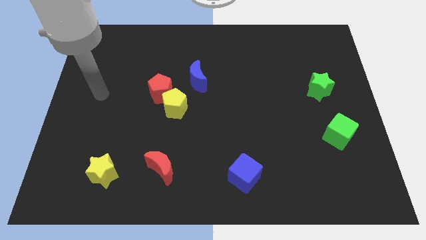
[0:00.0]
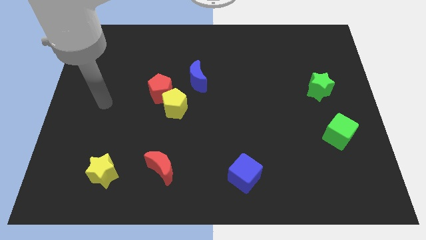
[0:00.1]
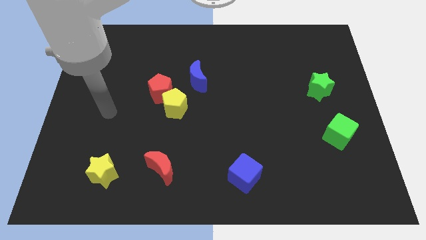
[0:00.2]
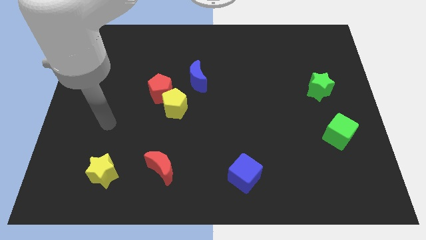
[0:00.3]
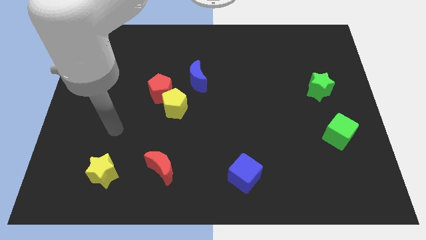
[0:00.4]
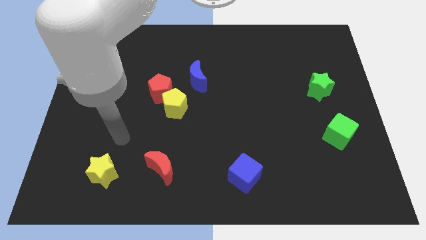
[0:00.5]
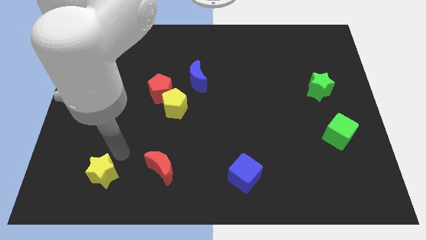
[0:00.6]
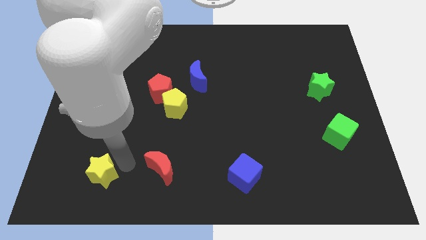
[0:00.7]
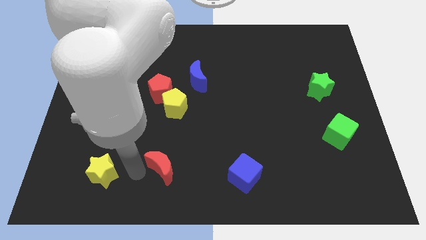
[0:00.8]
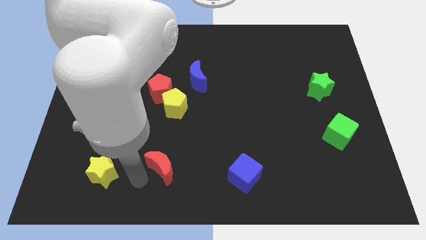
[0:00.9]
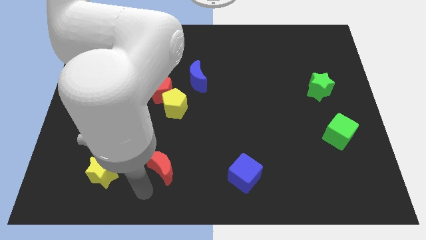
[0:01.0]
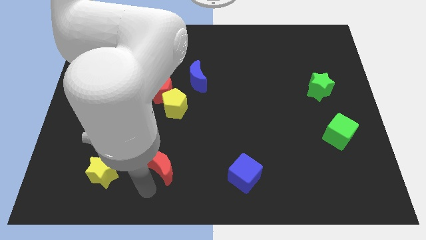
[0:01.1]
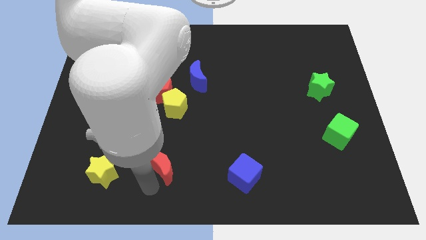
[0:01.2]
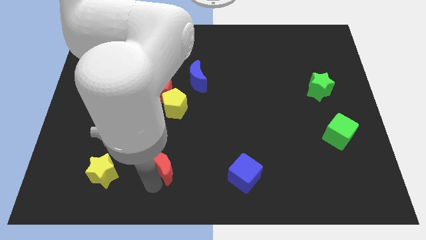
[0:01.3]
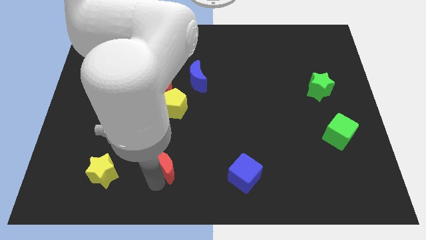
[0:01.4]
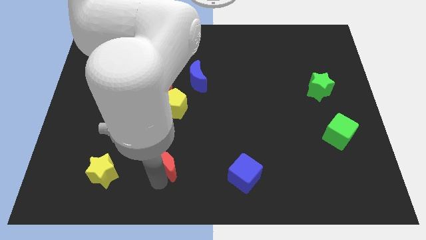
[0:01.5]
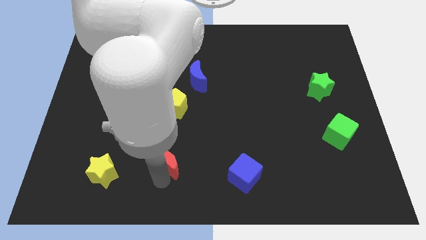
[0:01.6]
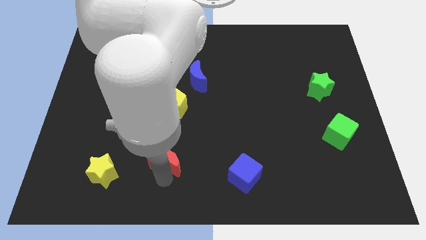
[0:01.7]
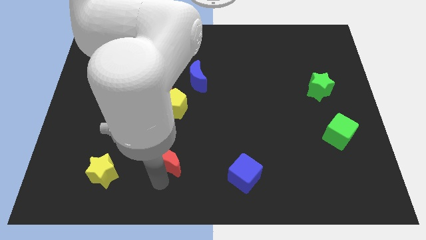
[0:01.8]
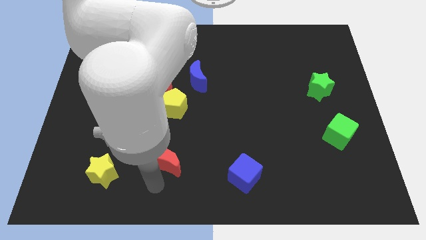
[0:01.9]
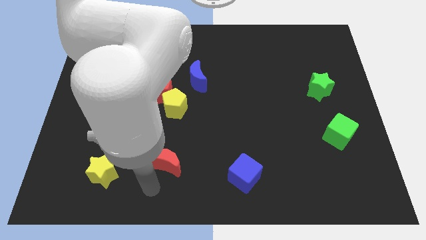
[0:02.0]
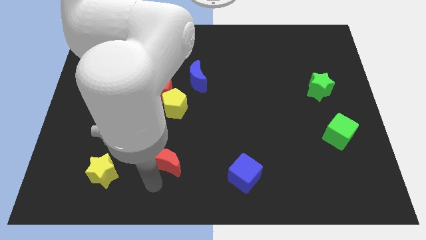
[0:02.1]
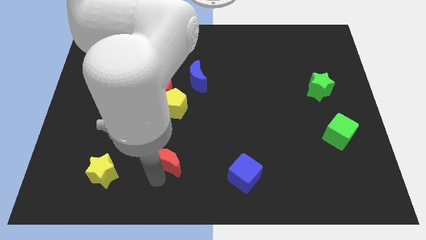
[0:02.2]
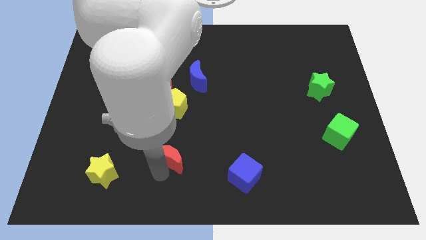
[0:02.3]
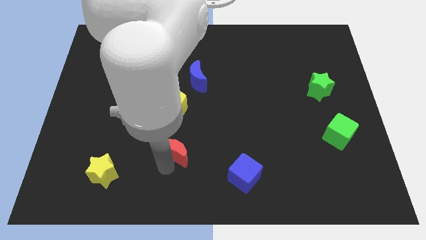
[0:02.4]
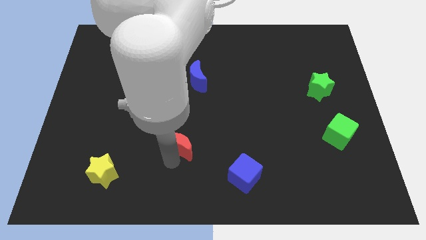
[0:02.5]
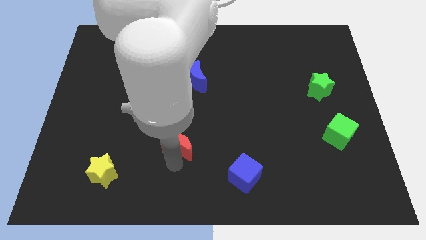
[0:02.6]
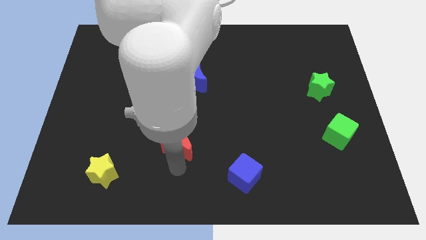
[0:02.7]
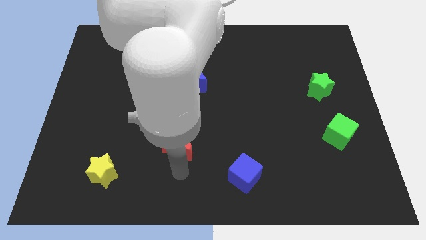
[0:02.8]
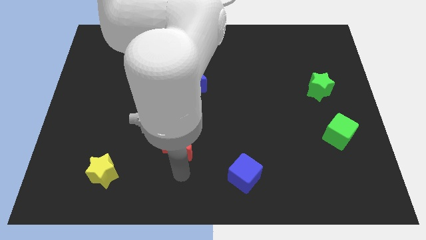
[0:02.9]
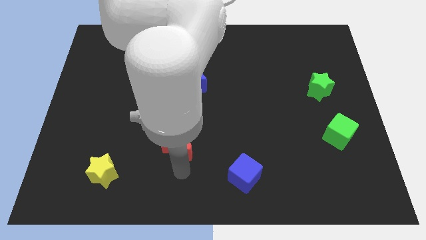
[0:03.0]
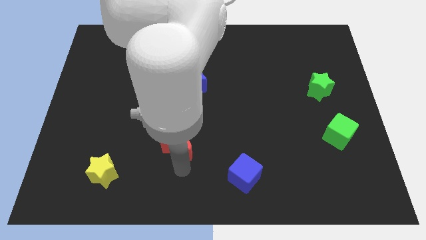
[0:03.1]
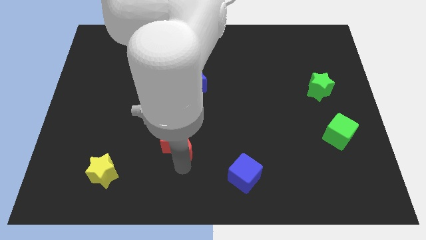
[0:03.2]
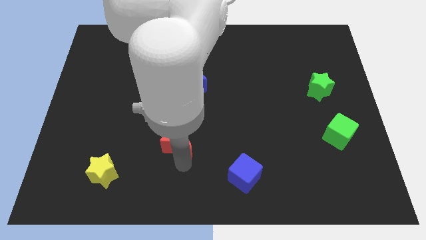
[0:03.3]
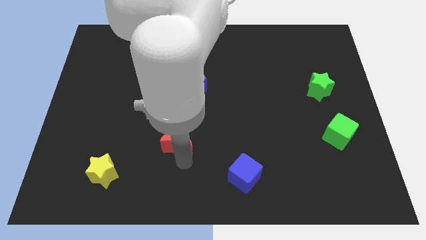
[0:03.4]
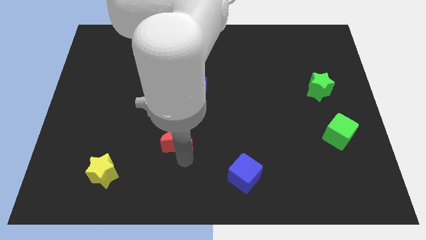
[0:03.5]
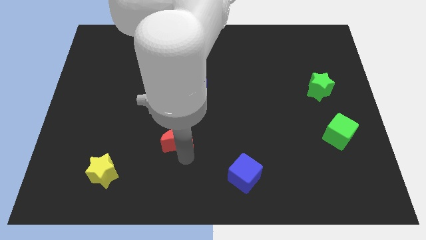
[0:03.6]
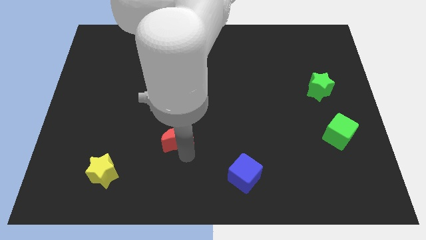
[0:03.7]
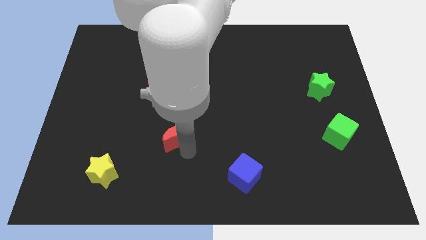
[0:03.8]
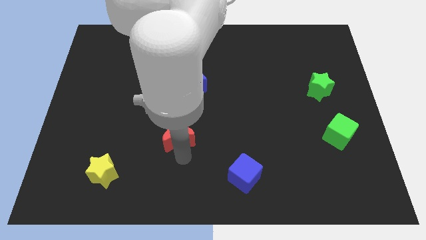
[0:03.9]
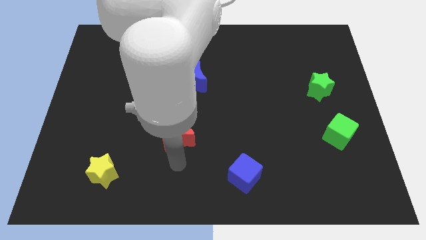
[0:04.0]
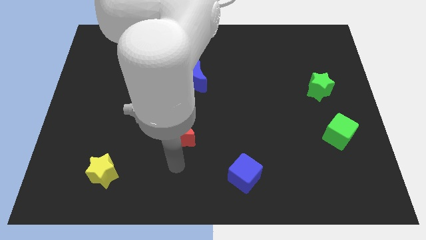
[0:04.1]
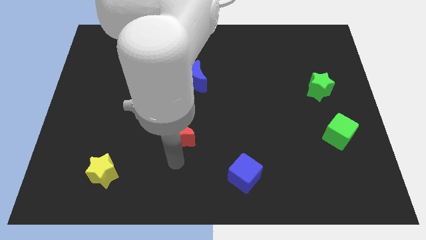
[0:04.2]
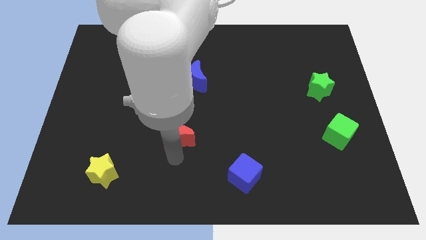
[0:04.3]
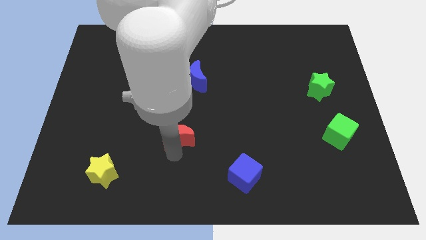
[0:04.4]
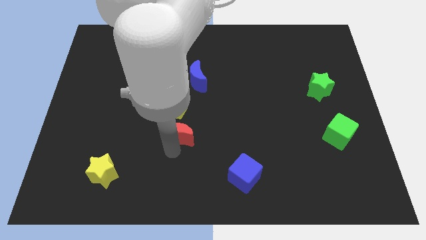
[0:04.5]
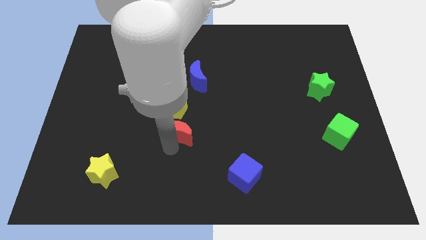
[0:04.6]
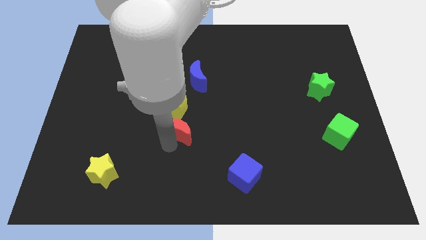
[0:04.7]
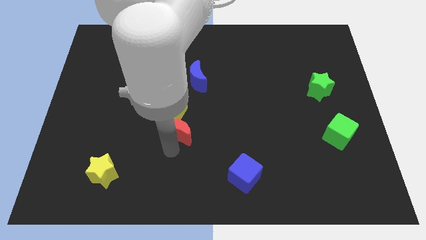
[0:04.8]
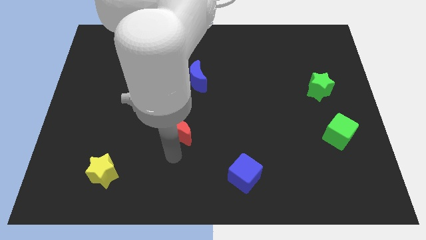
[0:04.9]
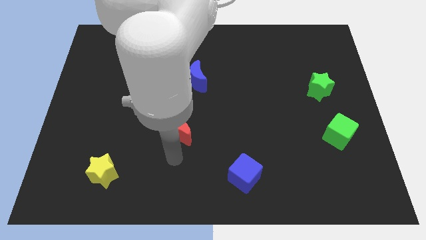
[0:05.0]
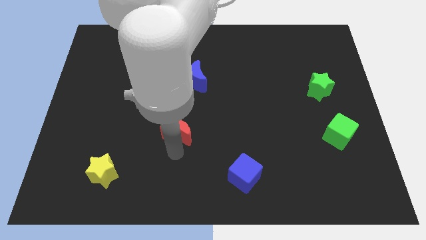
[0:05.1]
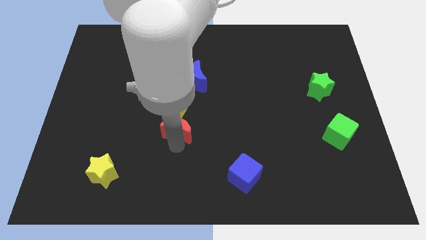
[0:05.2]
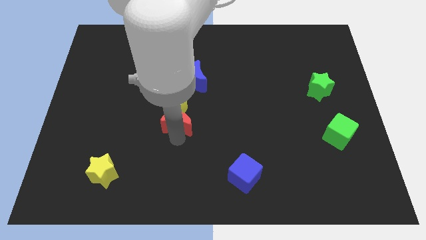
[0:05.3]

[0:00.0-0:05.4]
push the red moon to the bottom right side of the red pentagon

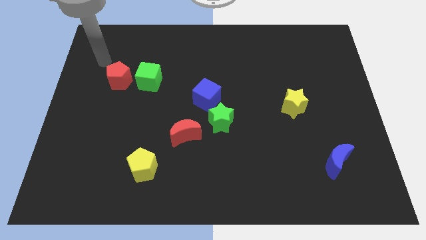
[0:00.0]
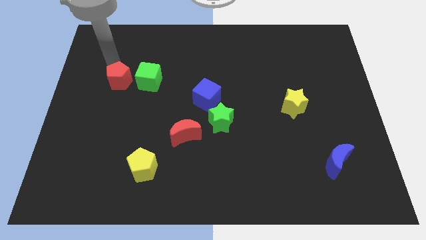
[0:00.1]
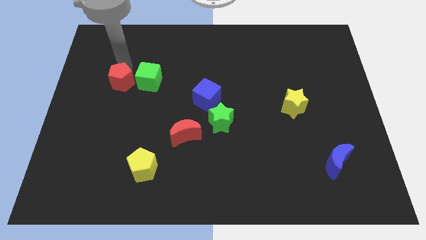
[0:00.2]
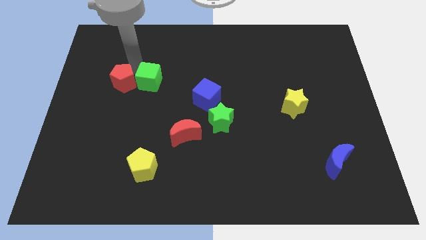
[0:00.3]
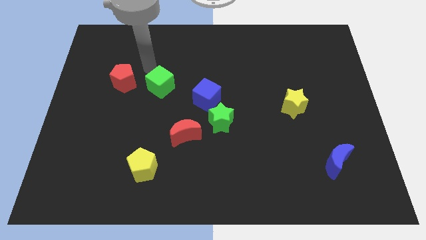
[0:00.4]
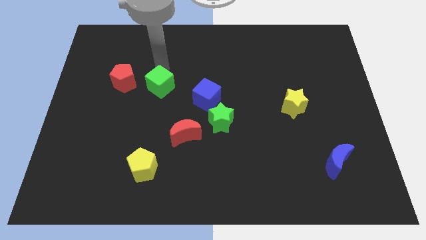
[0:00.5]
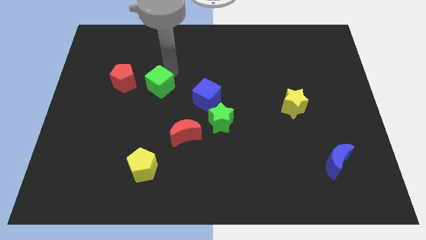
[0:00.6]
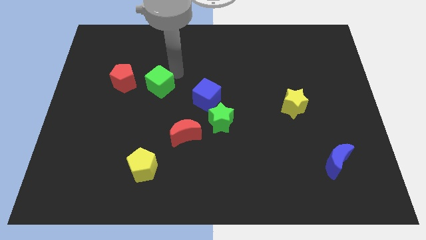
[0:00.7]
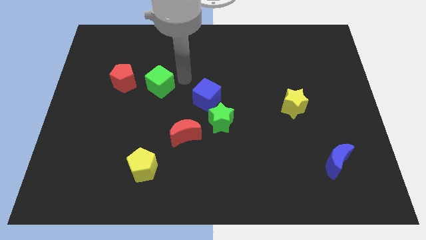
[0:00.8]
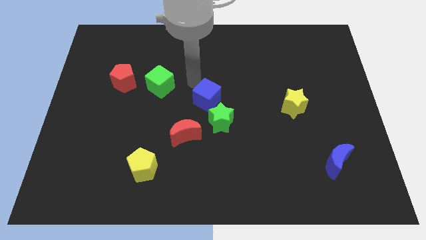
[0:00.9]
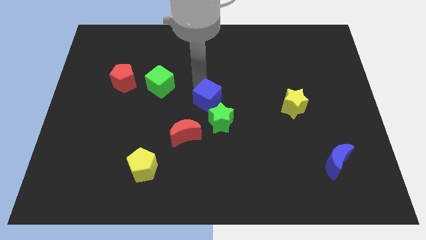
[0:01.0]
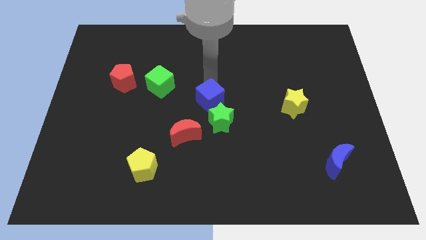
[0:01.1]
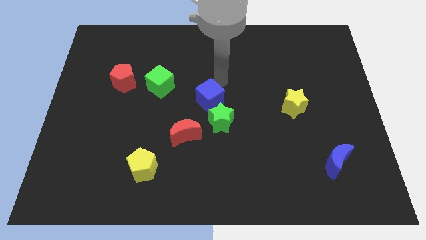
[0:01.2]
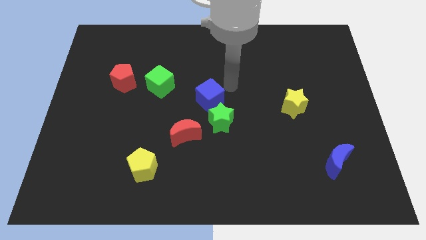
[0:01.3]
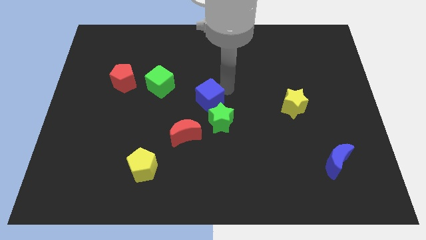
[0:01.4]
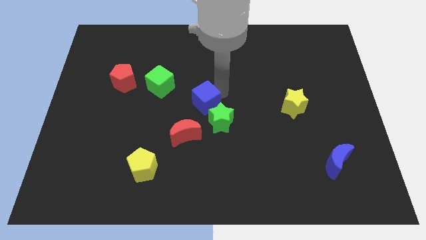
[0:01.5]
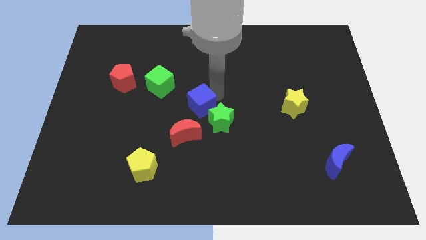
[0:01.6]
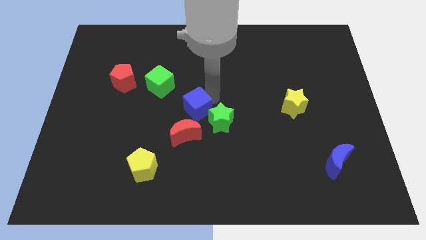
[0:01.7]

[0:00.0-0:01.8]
slide the blue cube to the left side of the green star

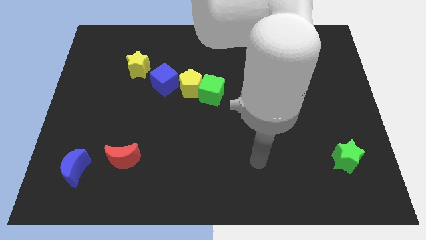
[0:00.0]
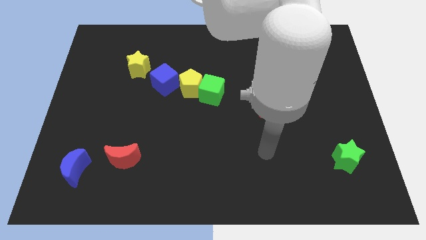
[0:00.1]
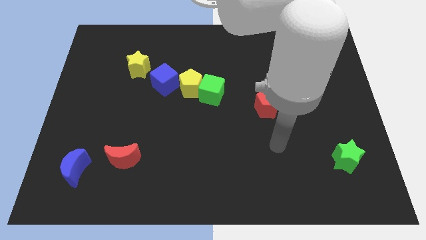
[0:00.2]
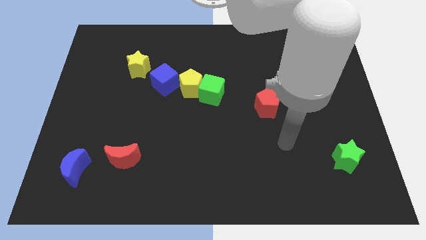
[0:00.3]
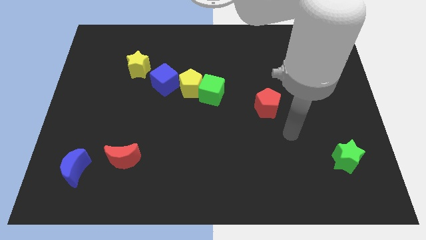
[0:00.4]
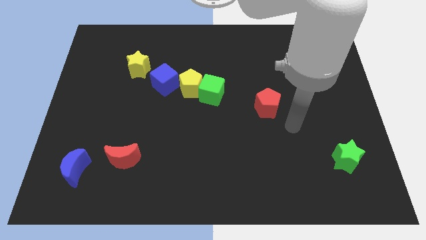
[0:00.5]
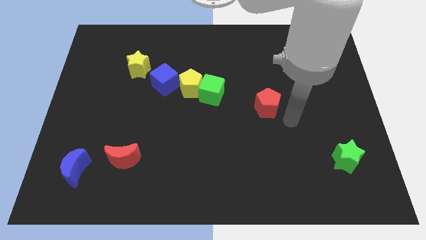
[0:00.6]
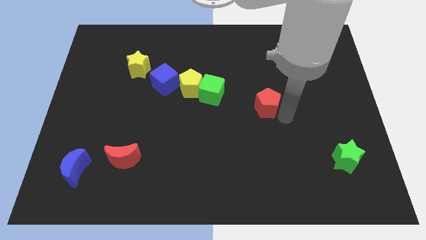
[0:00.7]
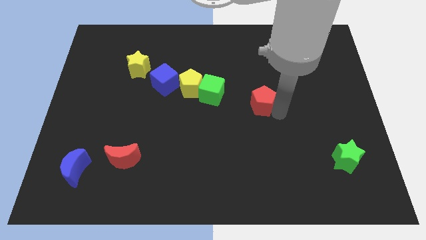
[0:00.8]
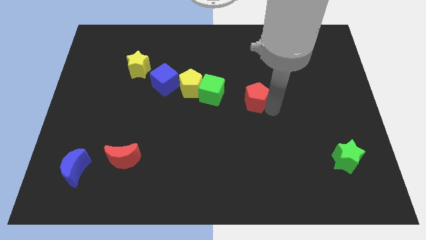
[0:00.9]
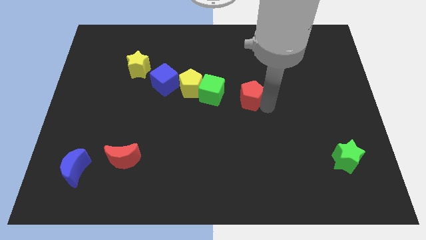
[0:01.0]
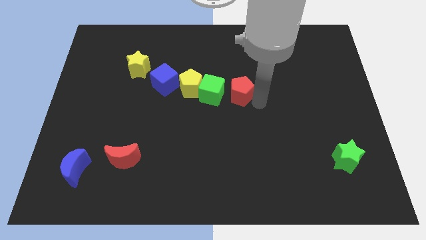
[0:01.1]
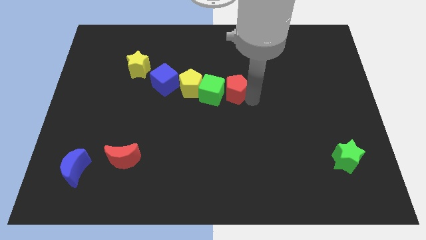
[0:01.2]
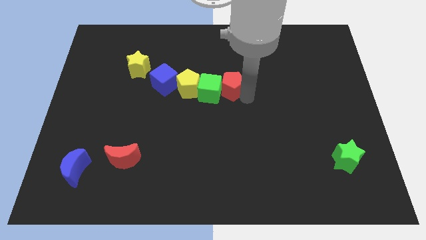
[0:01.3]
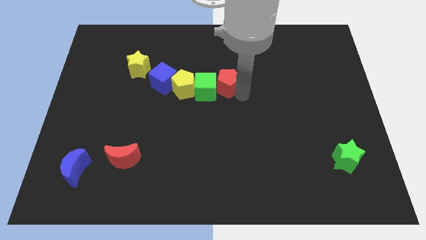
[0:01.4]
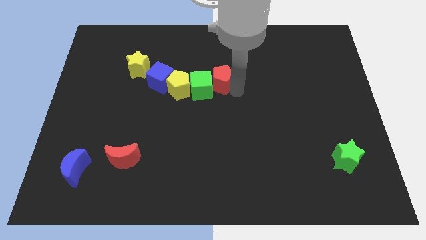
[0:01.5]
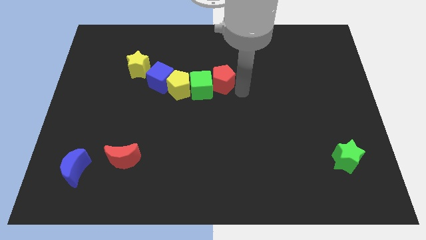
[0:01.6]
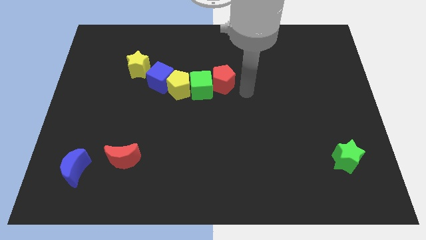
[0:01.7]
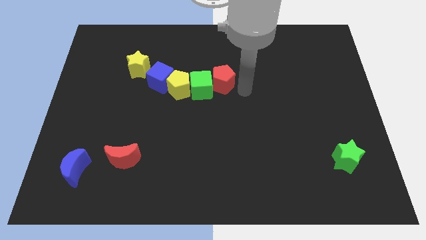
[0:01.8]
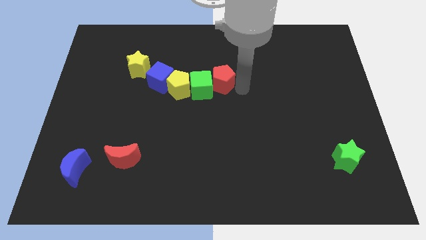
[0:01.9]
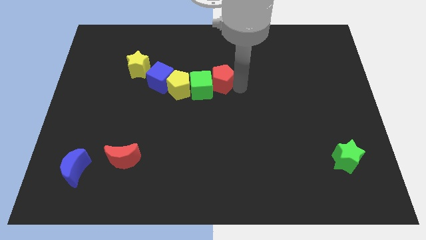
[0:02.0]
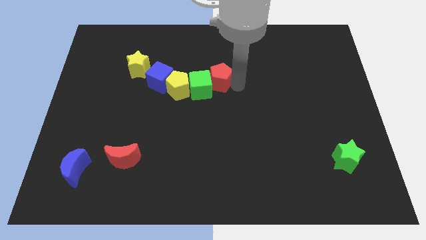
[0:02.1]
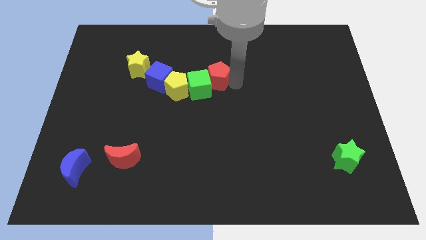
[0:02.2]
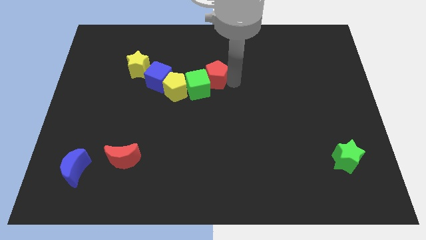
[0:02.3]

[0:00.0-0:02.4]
put the red pentagon diagonally up and to the right of the yellow pentagon
